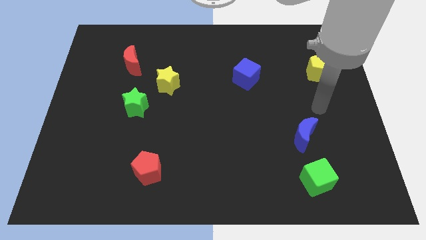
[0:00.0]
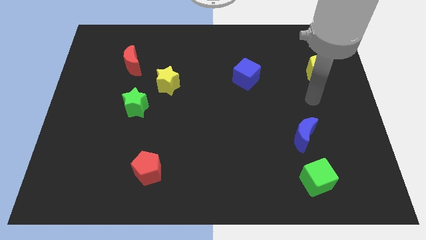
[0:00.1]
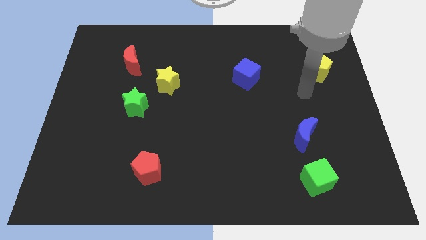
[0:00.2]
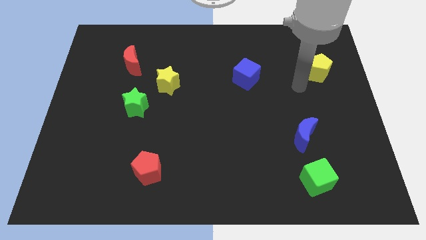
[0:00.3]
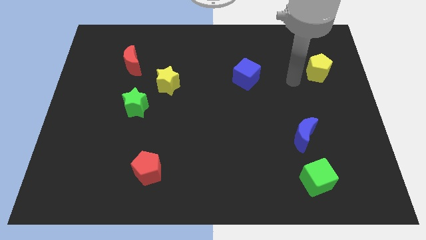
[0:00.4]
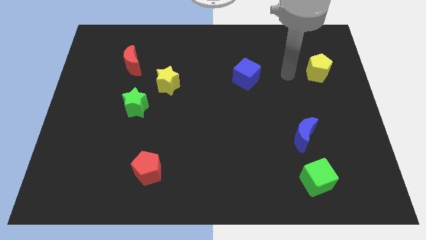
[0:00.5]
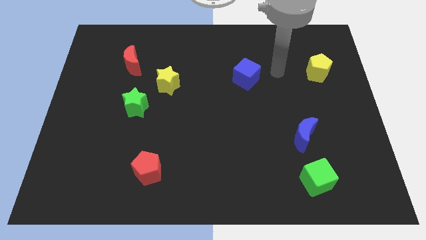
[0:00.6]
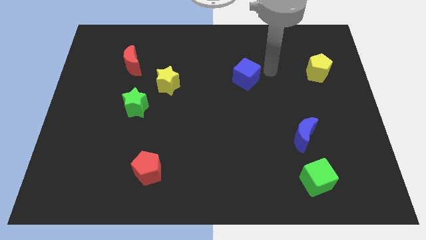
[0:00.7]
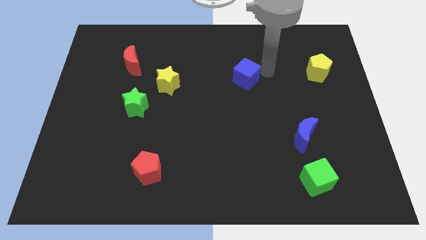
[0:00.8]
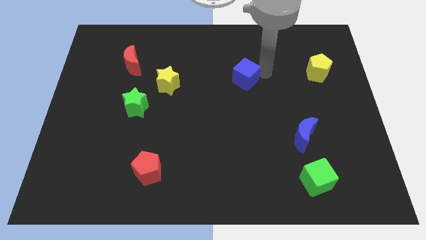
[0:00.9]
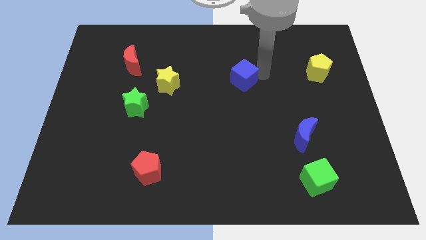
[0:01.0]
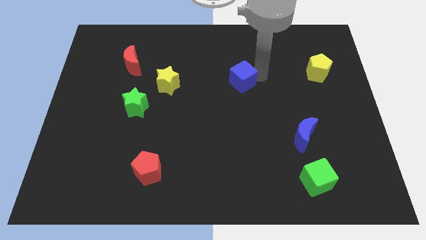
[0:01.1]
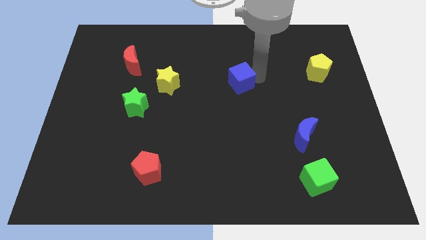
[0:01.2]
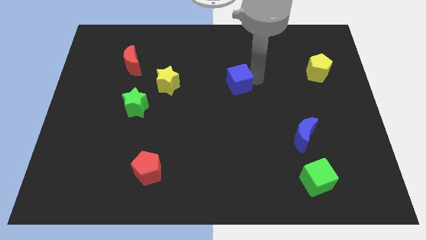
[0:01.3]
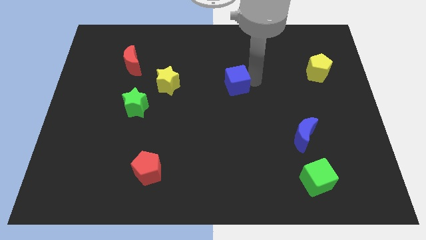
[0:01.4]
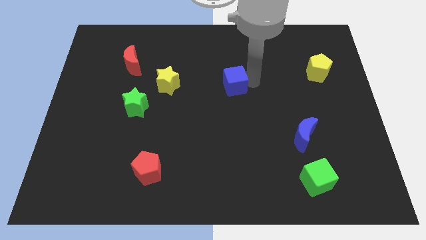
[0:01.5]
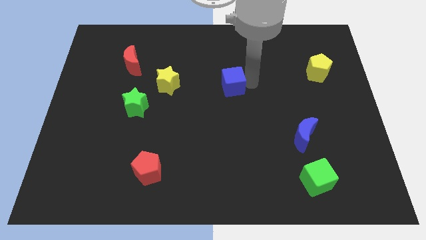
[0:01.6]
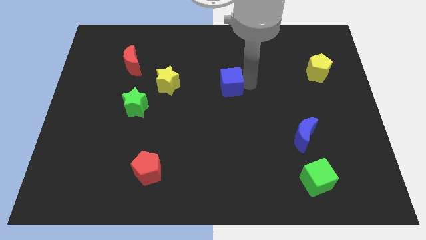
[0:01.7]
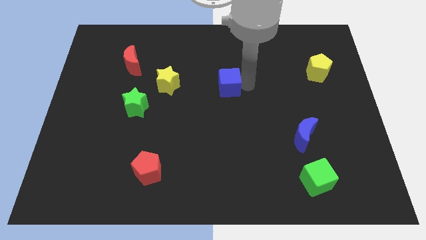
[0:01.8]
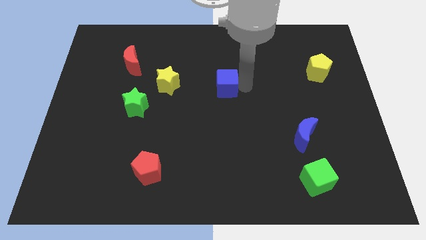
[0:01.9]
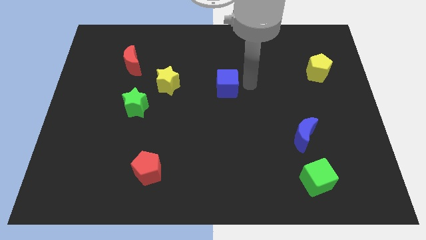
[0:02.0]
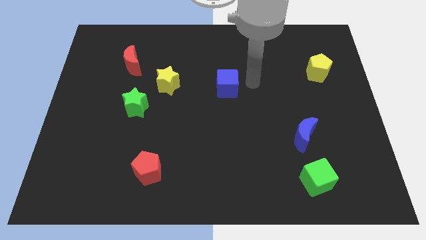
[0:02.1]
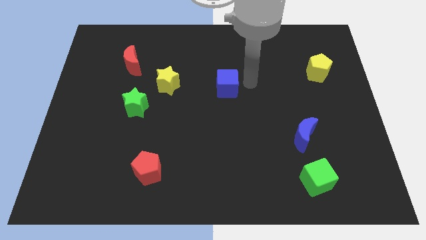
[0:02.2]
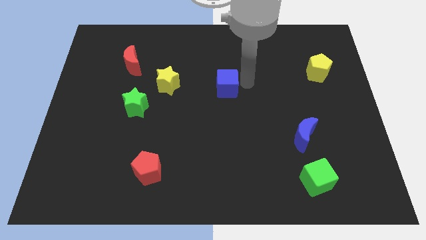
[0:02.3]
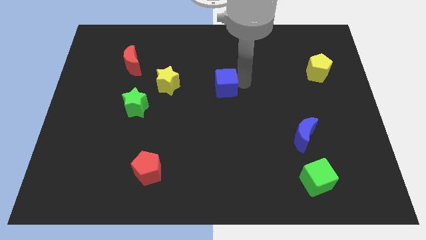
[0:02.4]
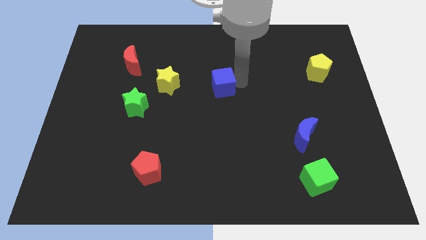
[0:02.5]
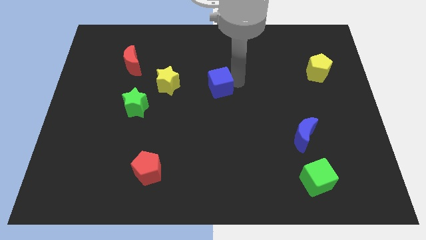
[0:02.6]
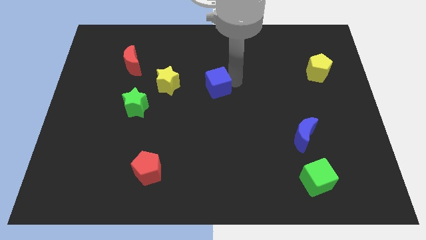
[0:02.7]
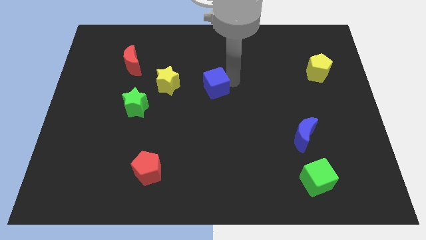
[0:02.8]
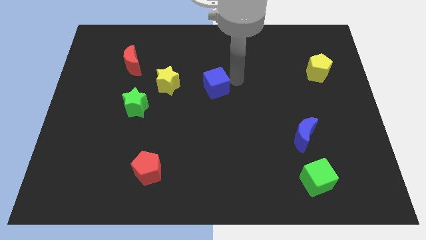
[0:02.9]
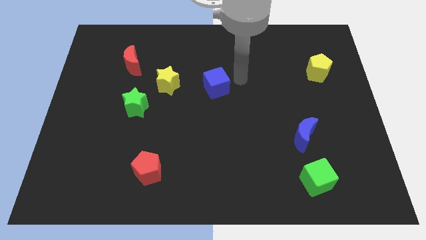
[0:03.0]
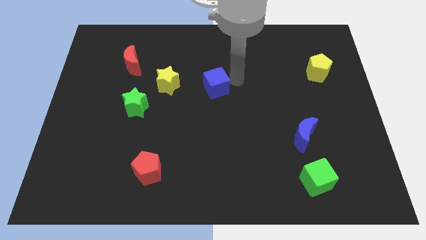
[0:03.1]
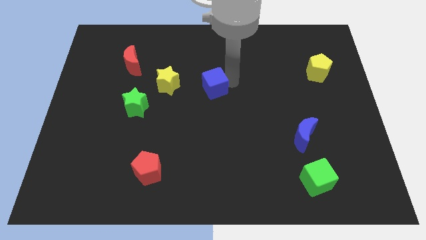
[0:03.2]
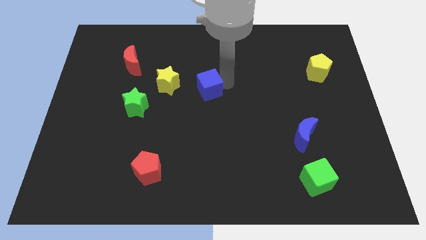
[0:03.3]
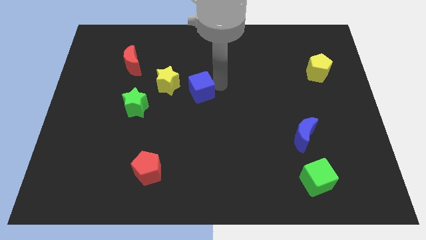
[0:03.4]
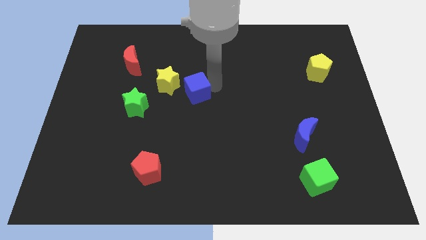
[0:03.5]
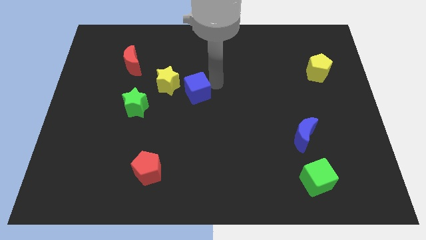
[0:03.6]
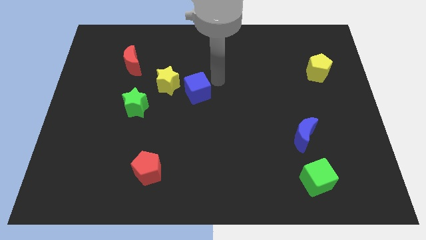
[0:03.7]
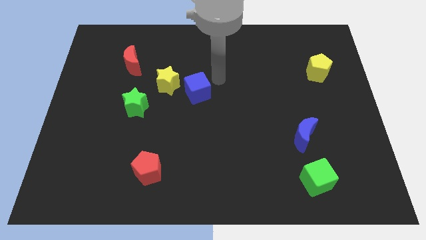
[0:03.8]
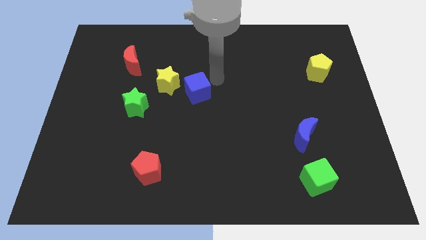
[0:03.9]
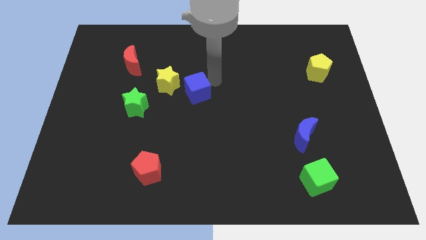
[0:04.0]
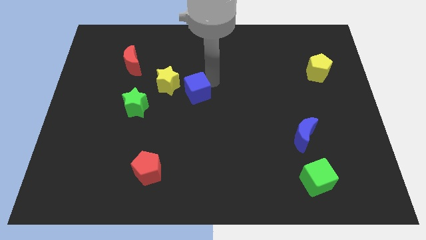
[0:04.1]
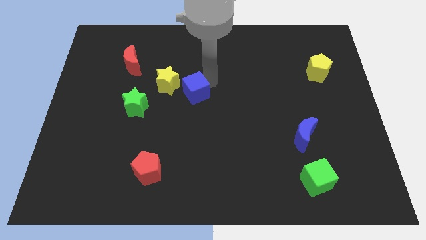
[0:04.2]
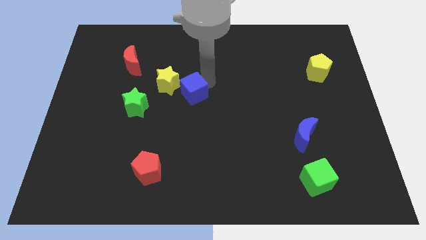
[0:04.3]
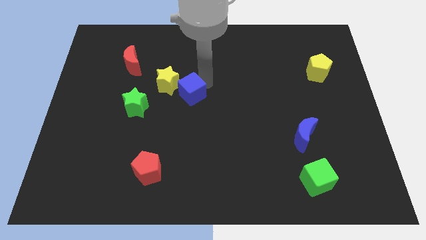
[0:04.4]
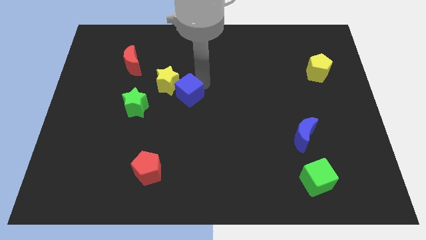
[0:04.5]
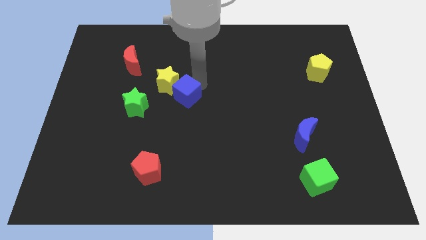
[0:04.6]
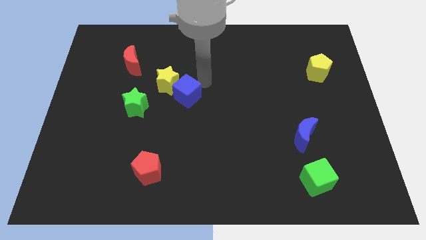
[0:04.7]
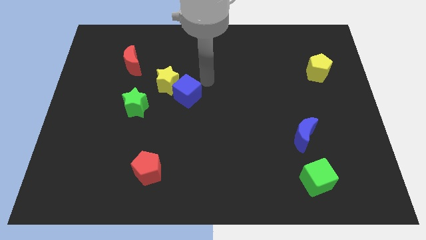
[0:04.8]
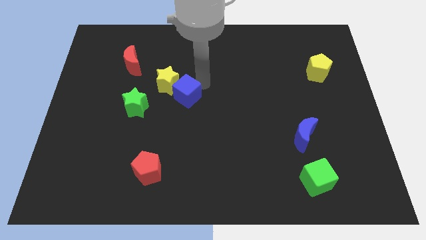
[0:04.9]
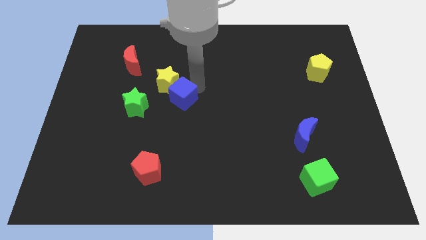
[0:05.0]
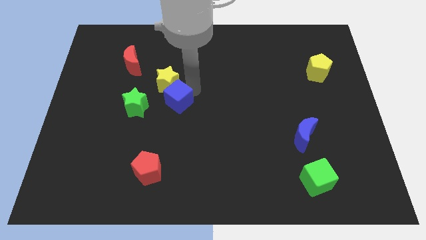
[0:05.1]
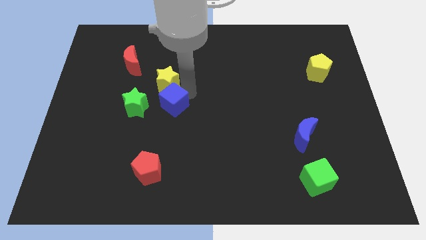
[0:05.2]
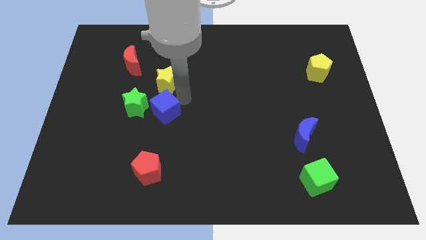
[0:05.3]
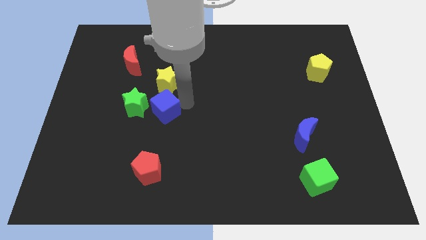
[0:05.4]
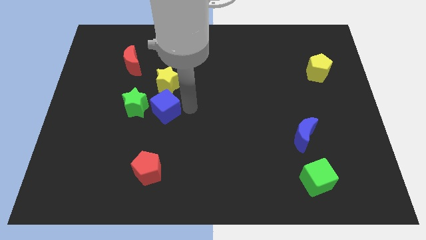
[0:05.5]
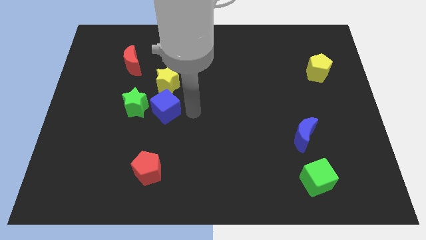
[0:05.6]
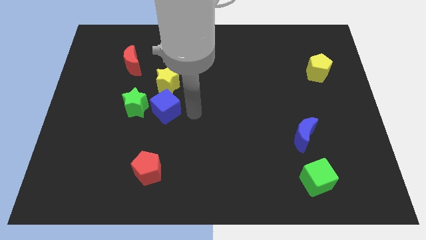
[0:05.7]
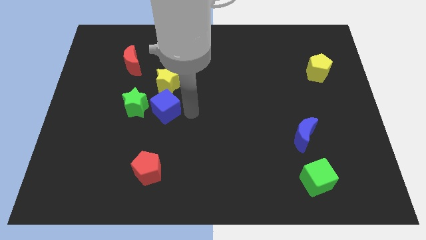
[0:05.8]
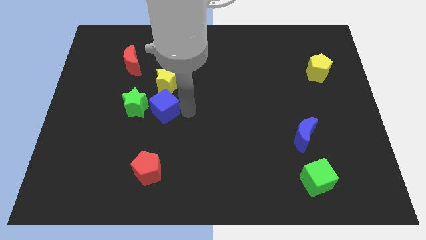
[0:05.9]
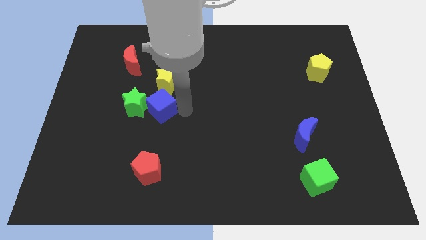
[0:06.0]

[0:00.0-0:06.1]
put the blue cube to the green star

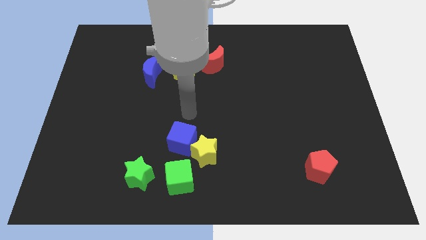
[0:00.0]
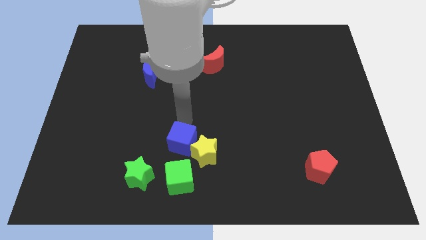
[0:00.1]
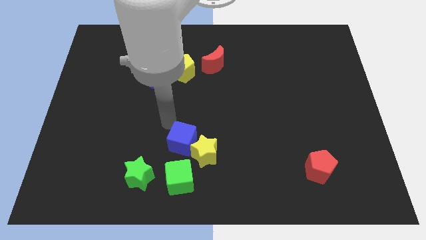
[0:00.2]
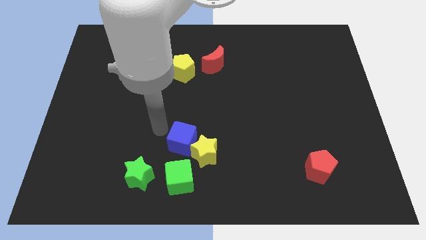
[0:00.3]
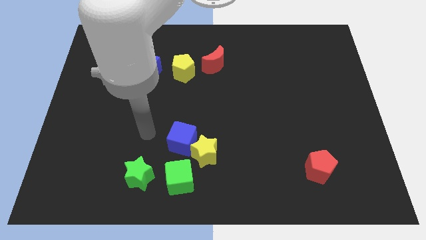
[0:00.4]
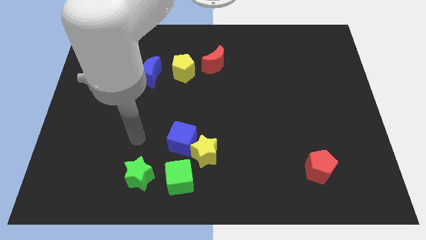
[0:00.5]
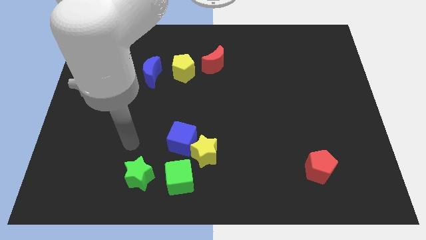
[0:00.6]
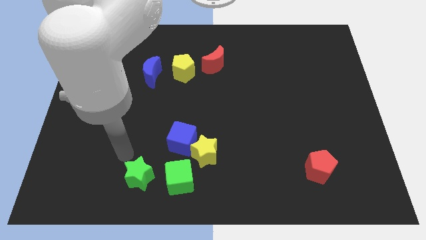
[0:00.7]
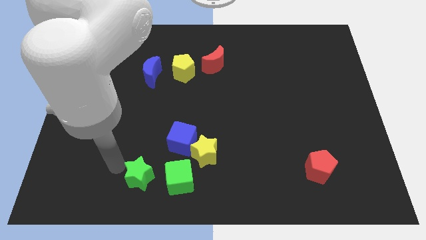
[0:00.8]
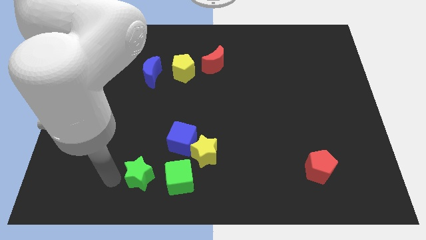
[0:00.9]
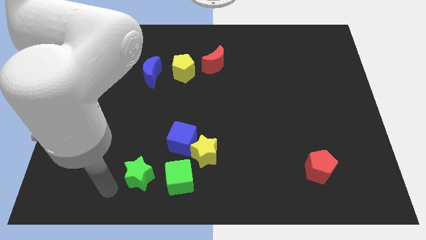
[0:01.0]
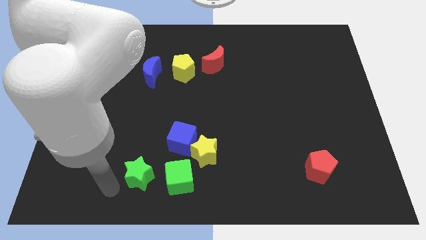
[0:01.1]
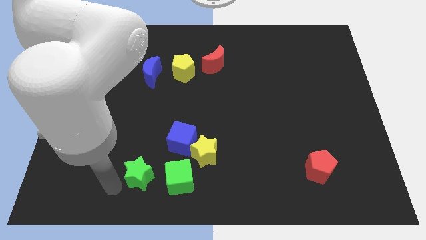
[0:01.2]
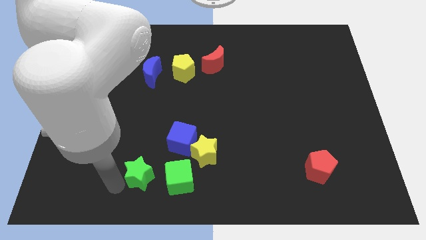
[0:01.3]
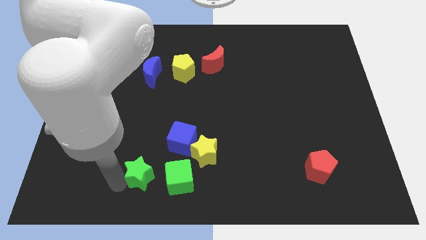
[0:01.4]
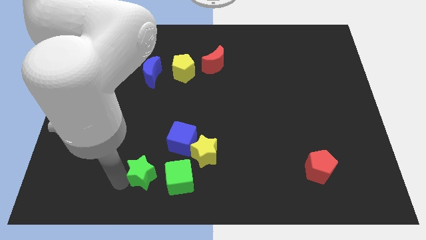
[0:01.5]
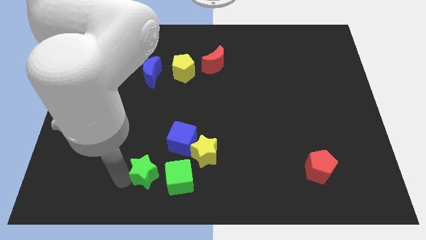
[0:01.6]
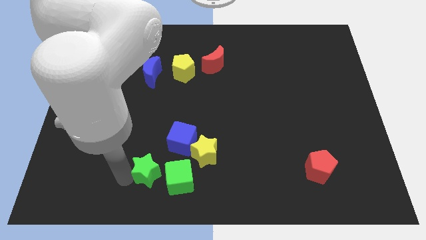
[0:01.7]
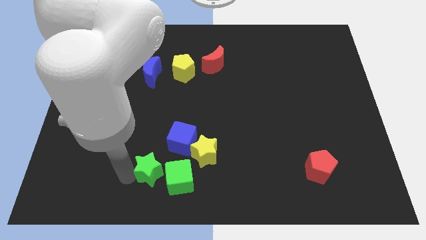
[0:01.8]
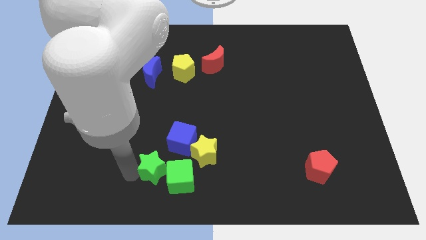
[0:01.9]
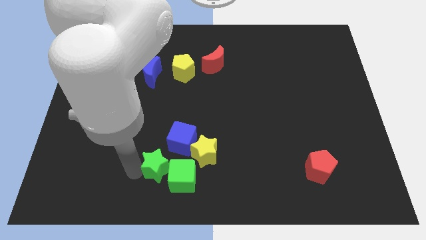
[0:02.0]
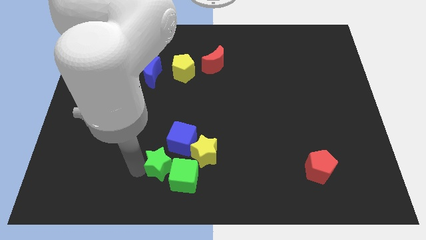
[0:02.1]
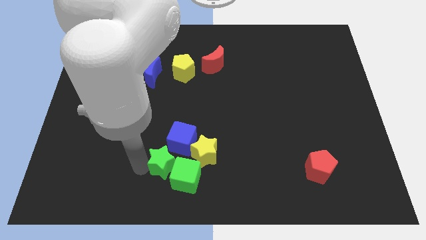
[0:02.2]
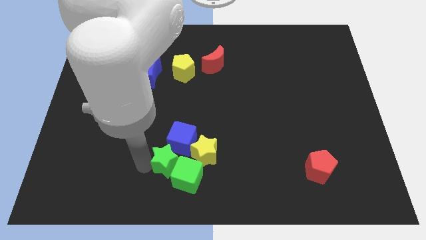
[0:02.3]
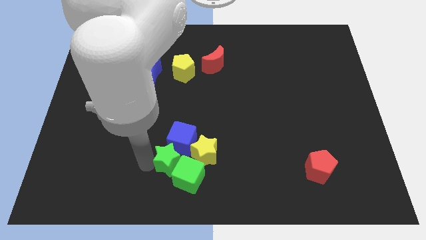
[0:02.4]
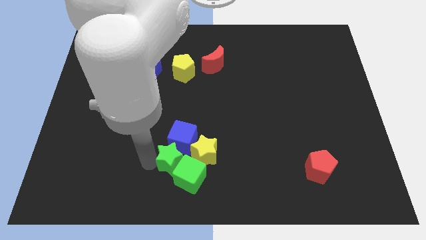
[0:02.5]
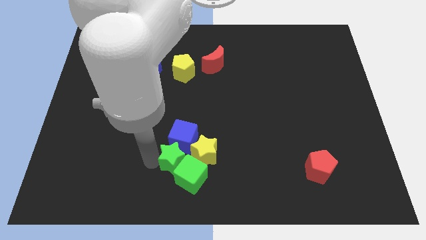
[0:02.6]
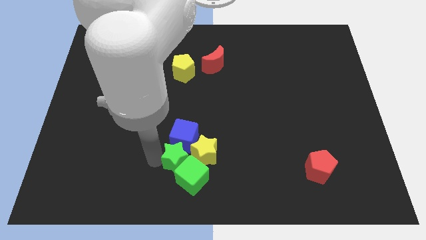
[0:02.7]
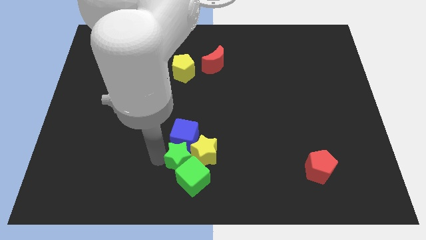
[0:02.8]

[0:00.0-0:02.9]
slide the green star towards the yellow star
